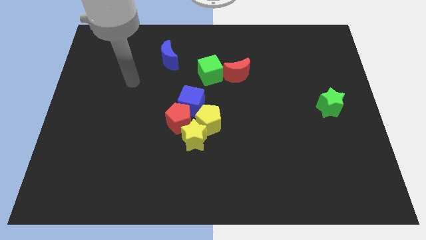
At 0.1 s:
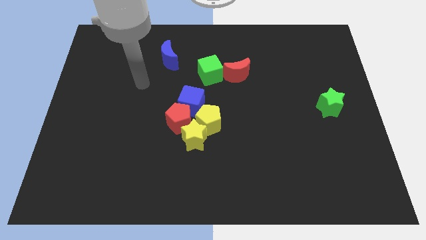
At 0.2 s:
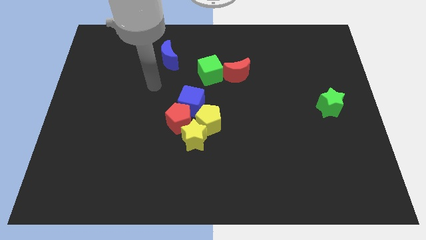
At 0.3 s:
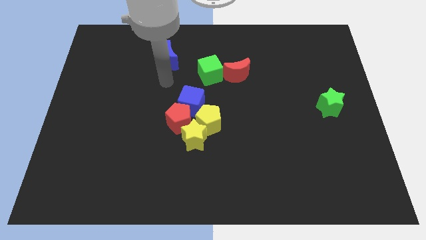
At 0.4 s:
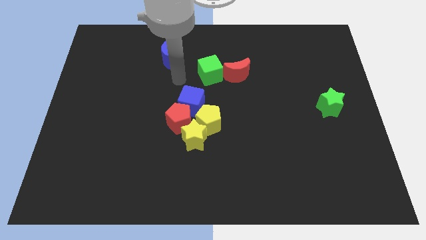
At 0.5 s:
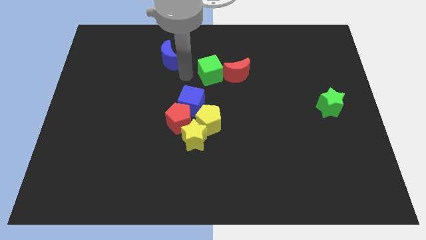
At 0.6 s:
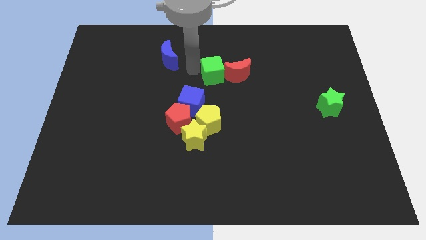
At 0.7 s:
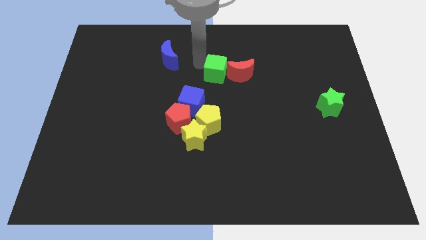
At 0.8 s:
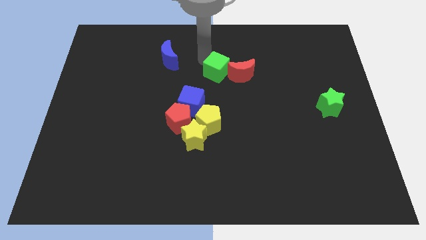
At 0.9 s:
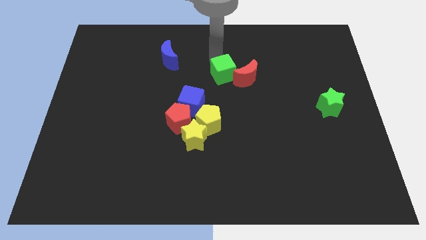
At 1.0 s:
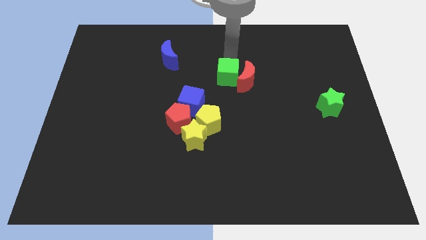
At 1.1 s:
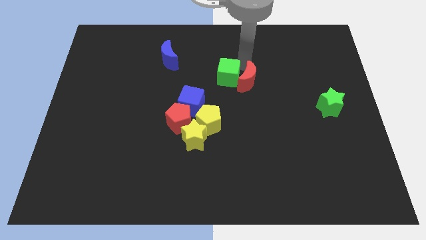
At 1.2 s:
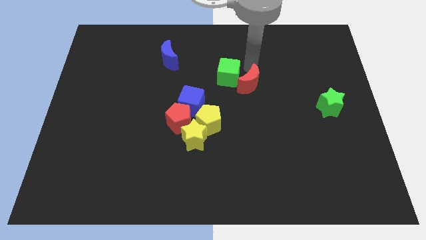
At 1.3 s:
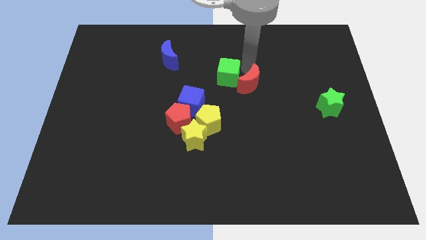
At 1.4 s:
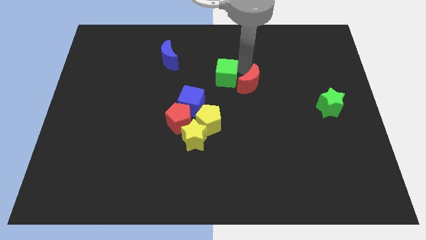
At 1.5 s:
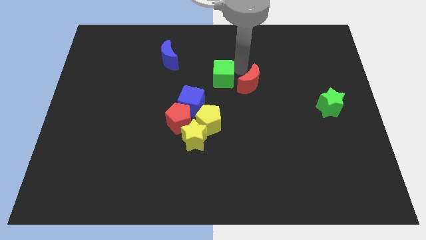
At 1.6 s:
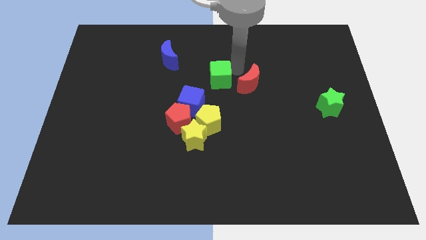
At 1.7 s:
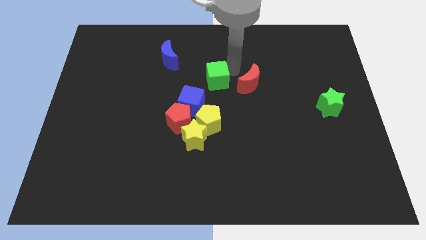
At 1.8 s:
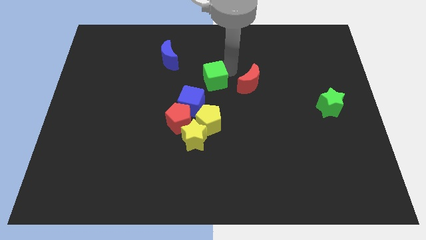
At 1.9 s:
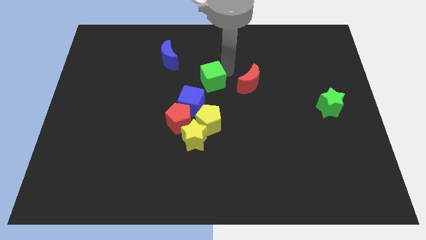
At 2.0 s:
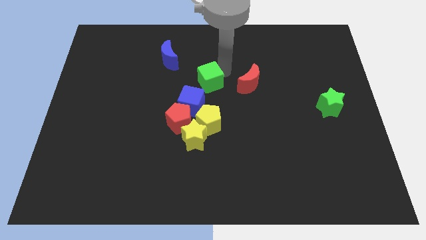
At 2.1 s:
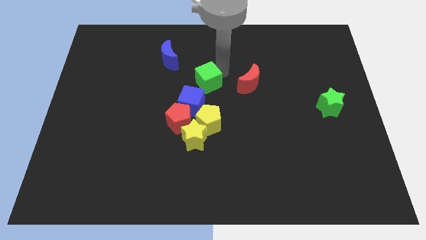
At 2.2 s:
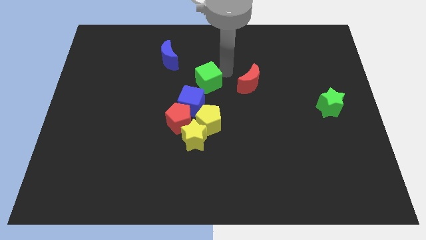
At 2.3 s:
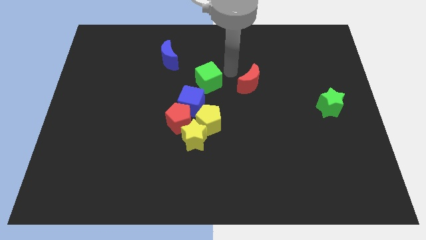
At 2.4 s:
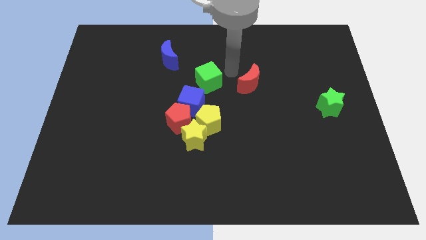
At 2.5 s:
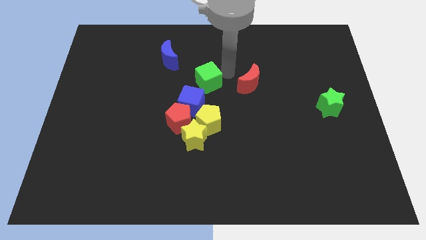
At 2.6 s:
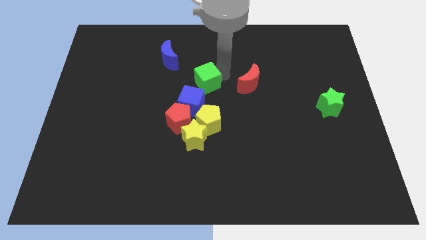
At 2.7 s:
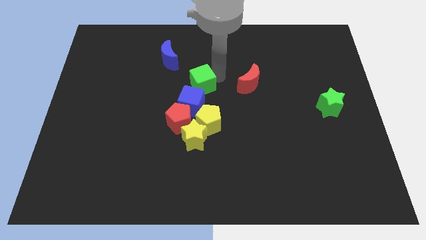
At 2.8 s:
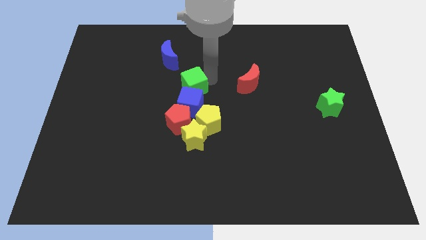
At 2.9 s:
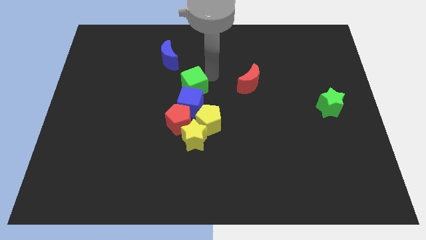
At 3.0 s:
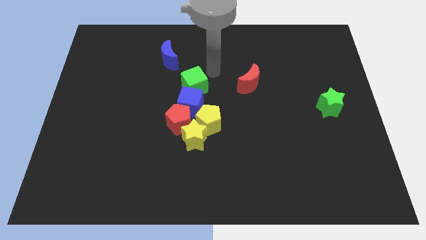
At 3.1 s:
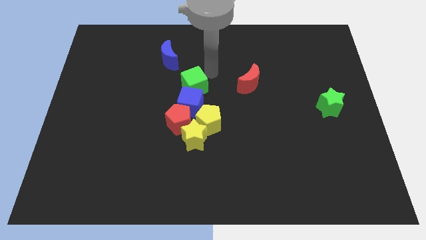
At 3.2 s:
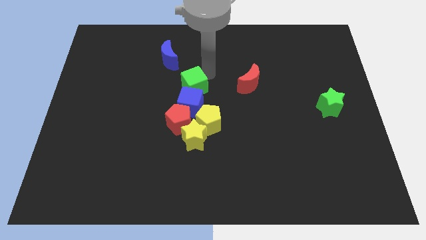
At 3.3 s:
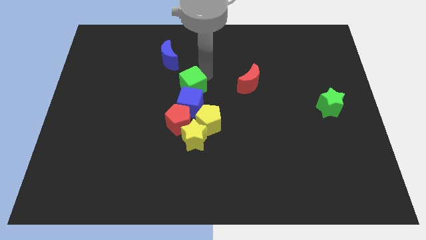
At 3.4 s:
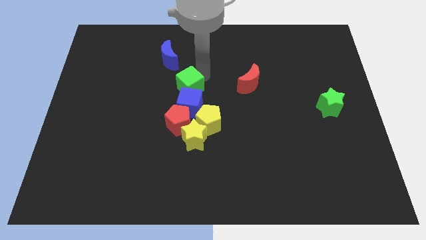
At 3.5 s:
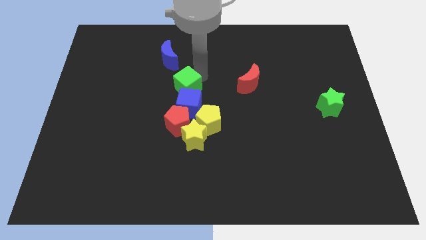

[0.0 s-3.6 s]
move the green cube downwards and left diagonally slightly

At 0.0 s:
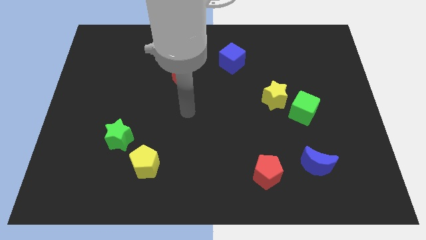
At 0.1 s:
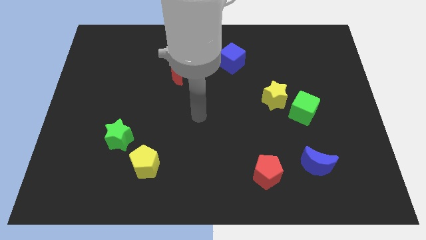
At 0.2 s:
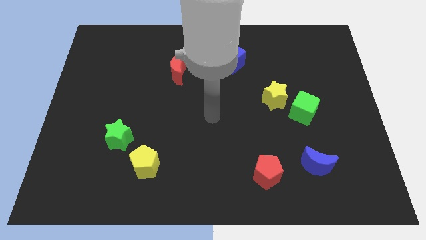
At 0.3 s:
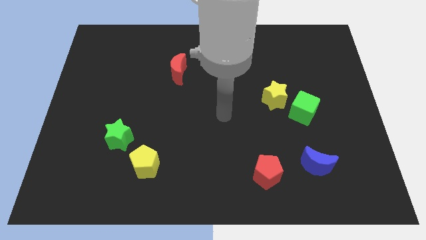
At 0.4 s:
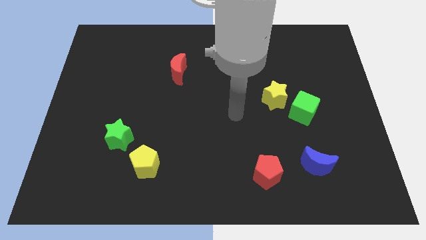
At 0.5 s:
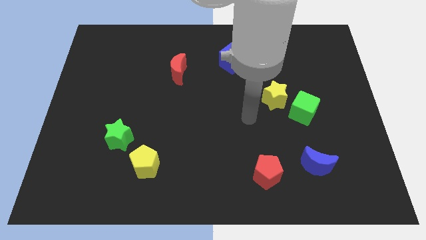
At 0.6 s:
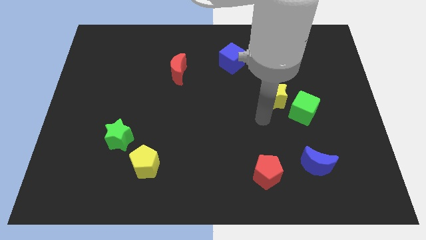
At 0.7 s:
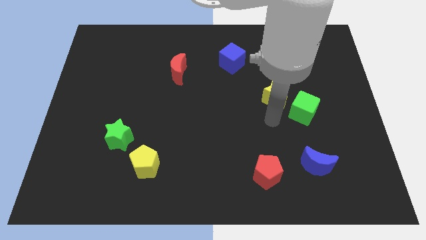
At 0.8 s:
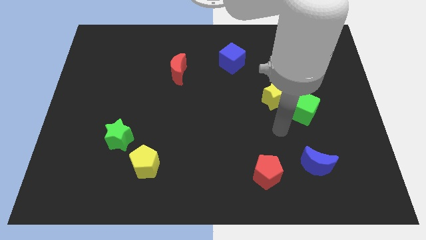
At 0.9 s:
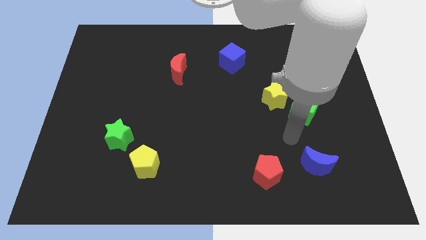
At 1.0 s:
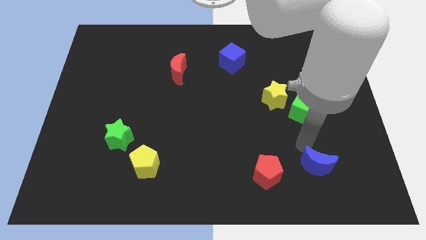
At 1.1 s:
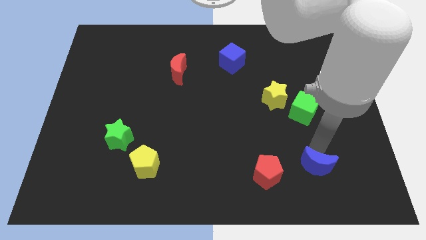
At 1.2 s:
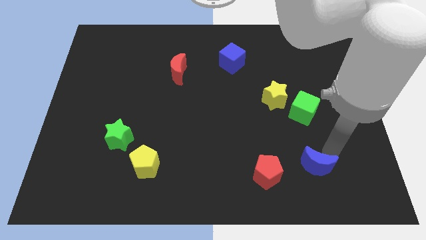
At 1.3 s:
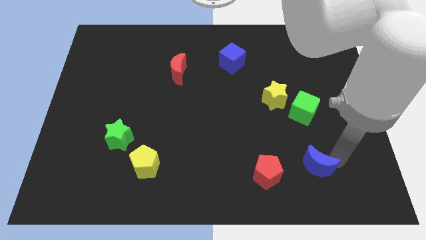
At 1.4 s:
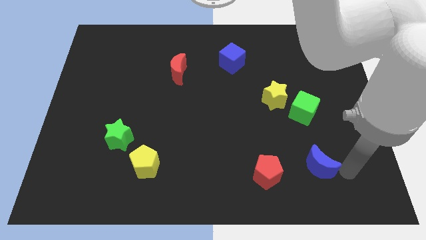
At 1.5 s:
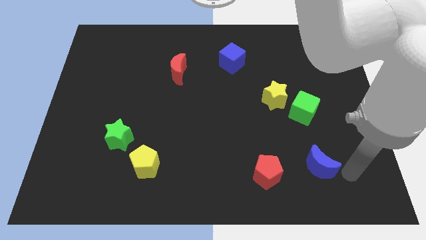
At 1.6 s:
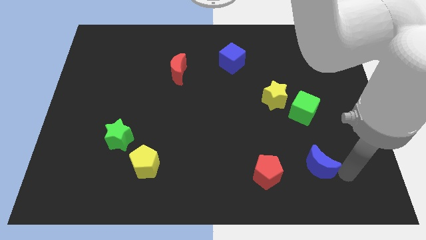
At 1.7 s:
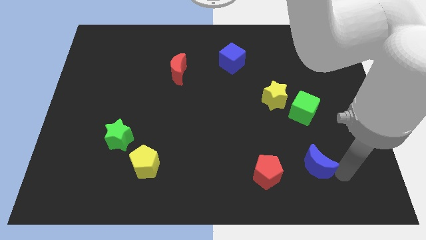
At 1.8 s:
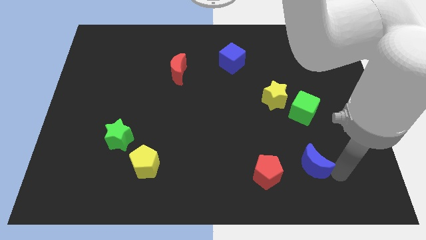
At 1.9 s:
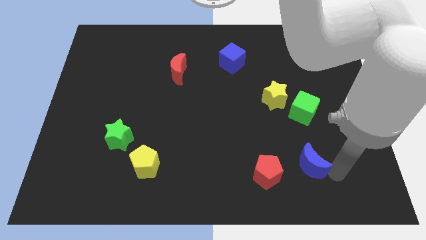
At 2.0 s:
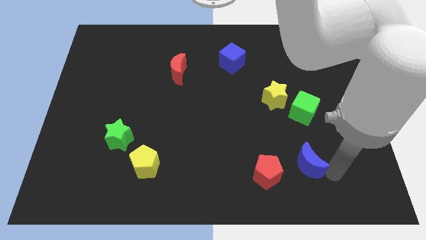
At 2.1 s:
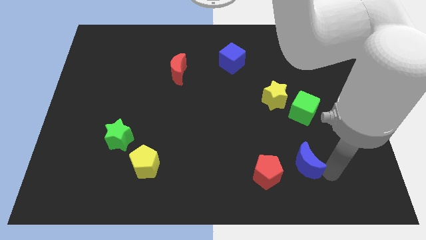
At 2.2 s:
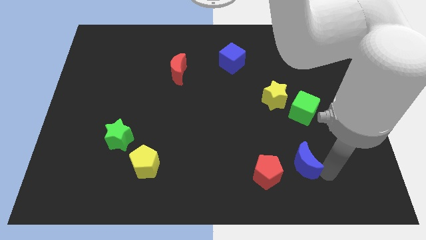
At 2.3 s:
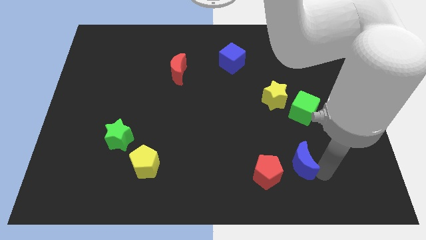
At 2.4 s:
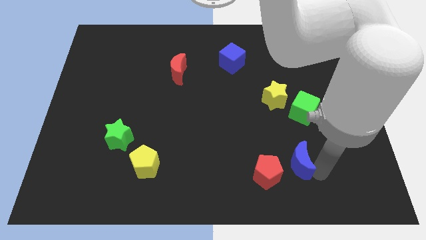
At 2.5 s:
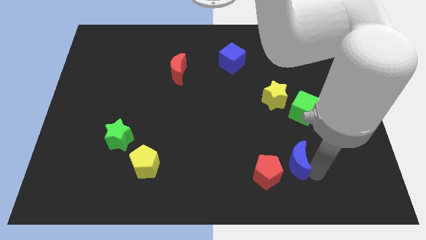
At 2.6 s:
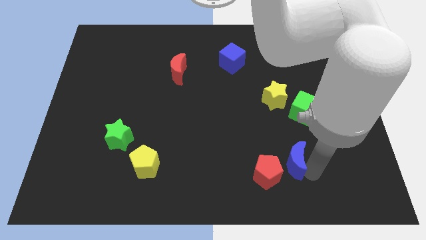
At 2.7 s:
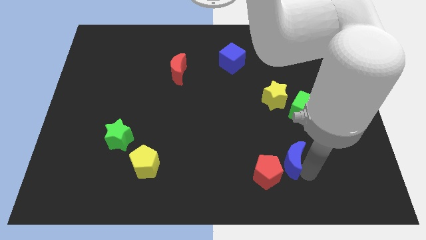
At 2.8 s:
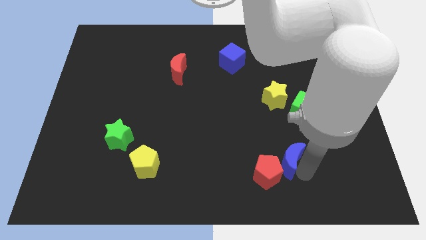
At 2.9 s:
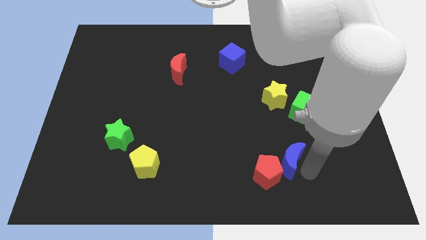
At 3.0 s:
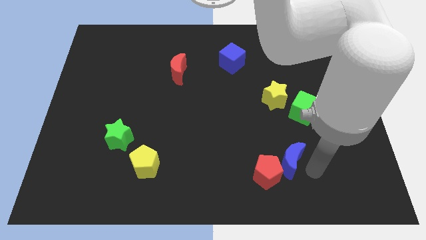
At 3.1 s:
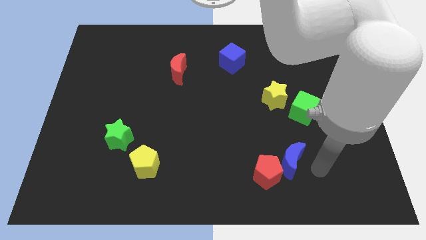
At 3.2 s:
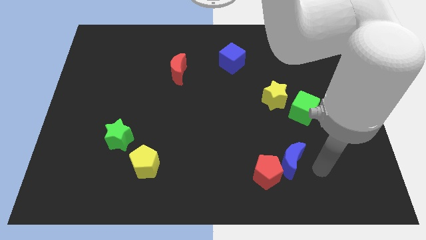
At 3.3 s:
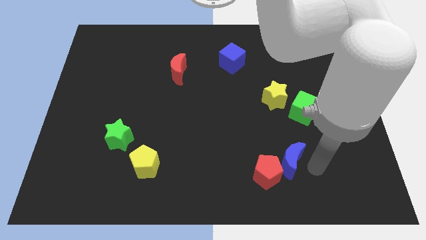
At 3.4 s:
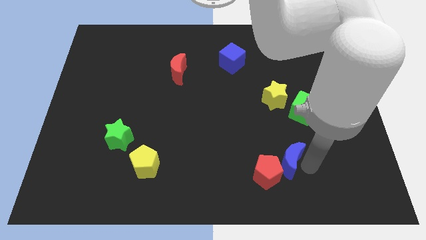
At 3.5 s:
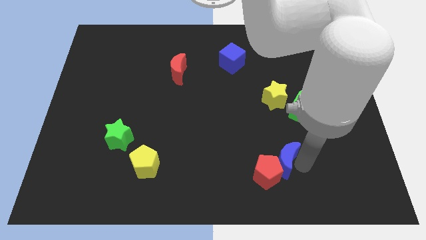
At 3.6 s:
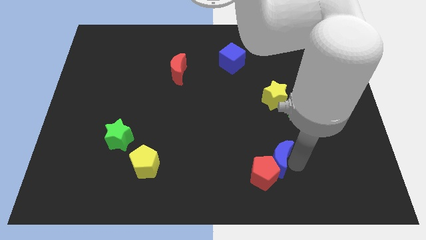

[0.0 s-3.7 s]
slide the blue moon left a little

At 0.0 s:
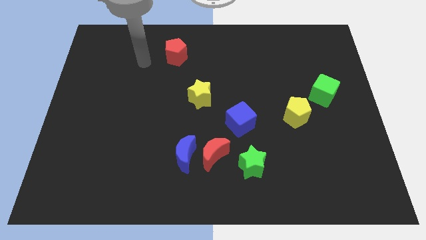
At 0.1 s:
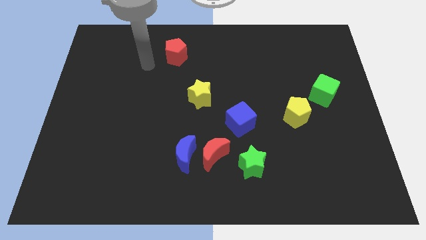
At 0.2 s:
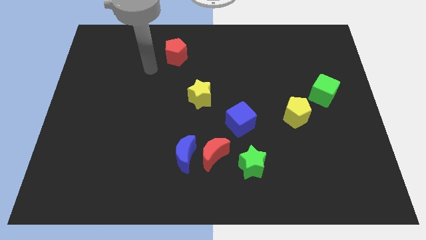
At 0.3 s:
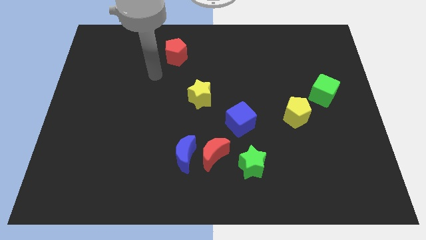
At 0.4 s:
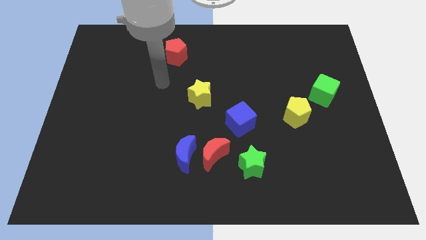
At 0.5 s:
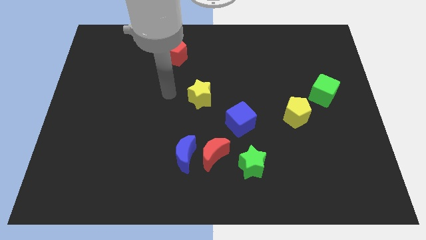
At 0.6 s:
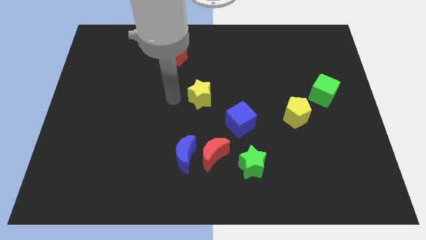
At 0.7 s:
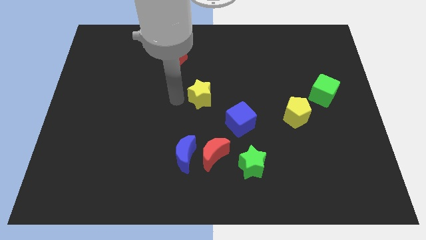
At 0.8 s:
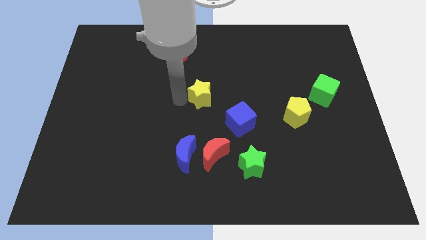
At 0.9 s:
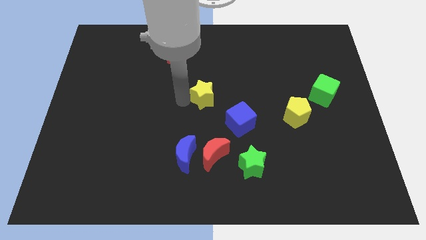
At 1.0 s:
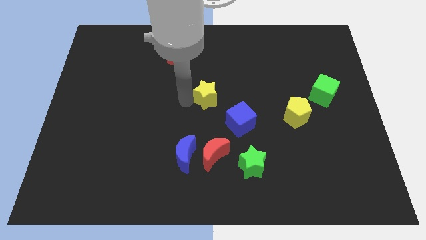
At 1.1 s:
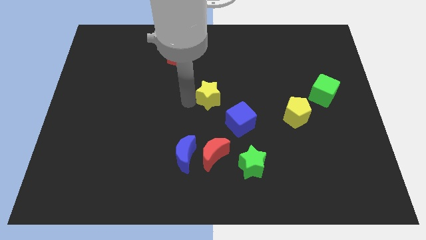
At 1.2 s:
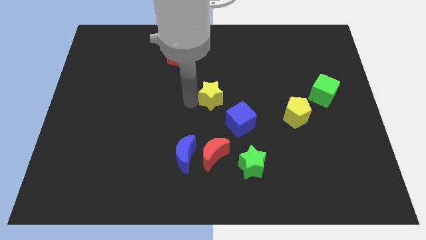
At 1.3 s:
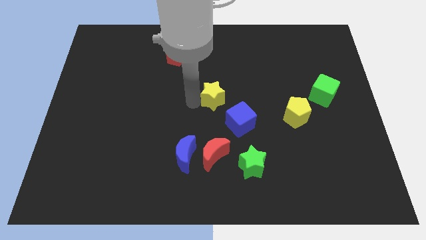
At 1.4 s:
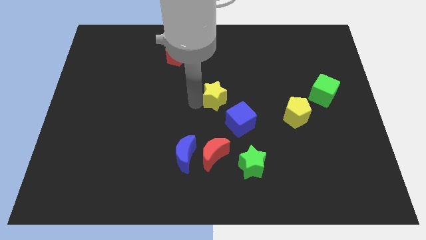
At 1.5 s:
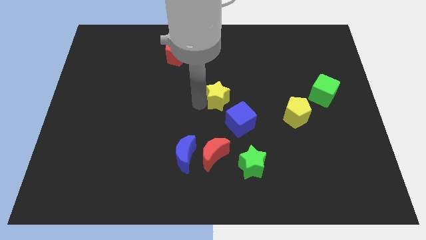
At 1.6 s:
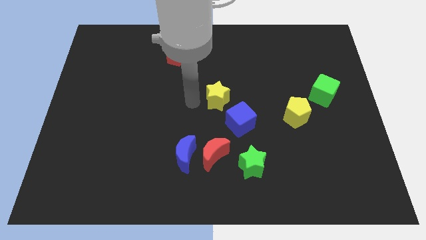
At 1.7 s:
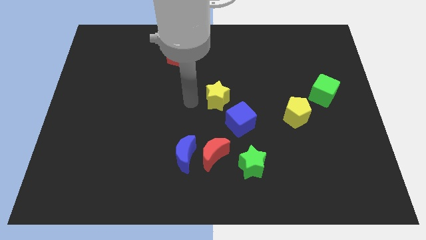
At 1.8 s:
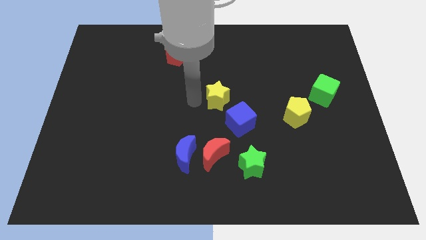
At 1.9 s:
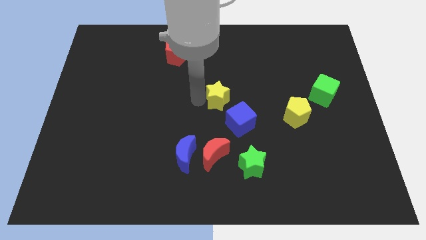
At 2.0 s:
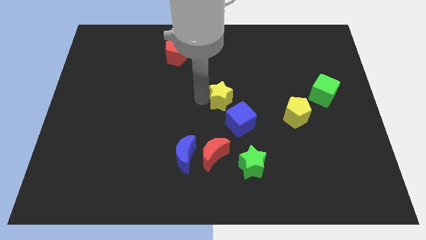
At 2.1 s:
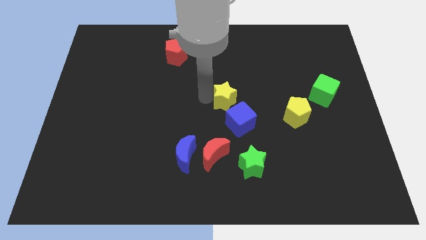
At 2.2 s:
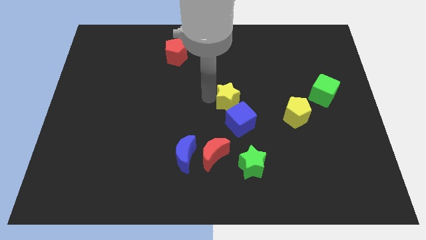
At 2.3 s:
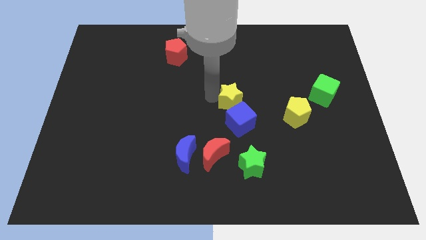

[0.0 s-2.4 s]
slightly push the yellow star right
